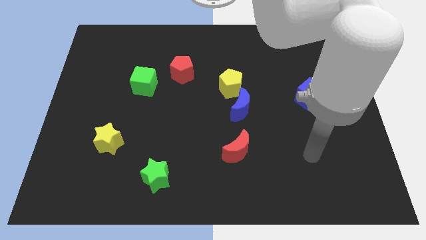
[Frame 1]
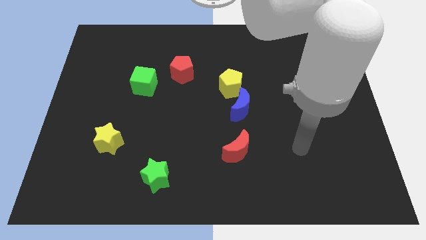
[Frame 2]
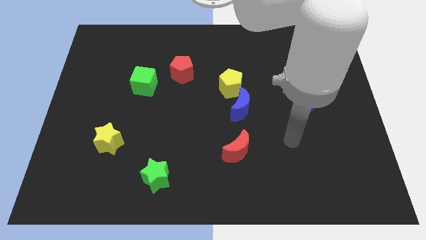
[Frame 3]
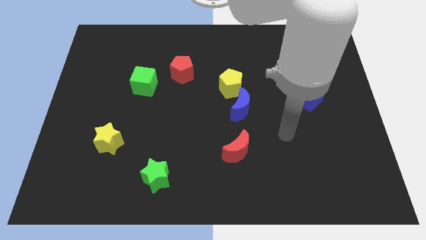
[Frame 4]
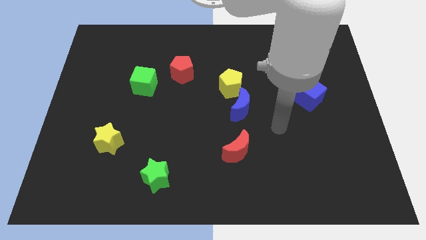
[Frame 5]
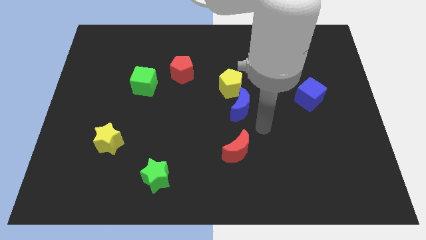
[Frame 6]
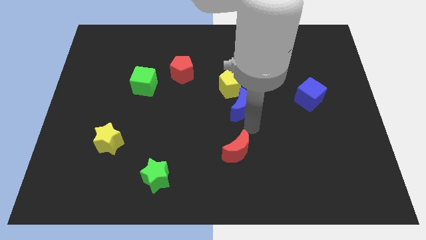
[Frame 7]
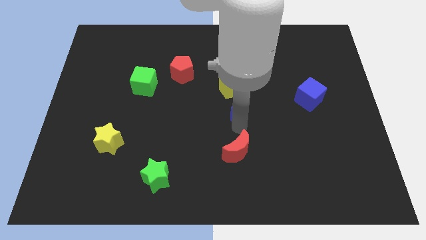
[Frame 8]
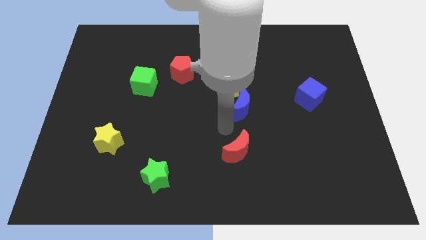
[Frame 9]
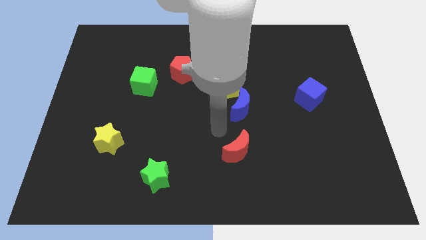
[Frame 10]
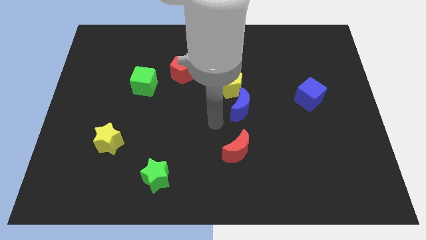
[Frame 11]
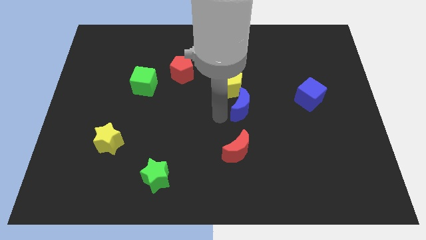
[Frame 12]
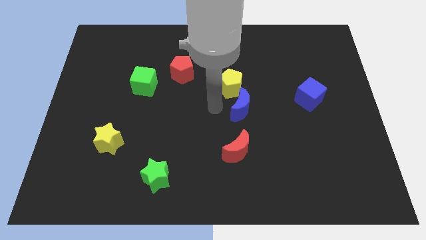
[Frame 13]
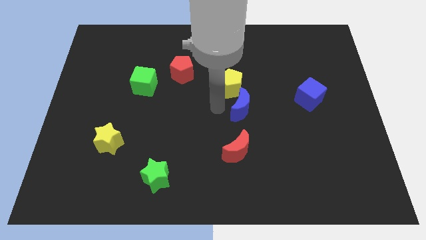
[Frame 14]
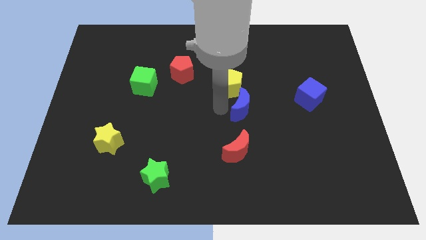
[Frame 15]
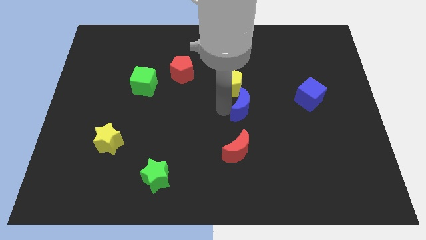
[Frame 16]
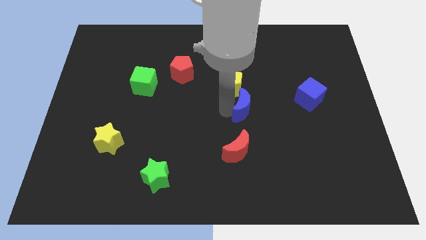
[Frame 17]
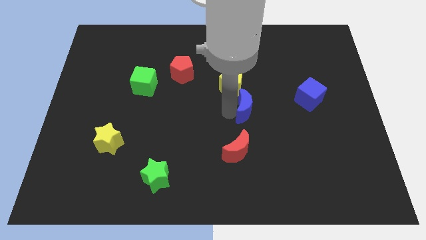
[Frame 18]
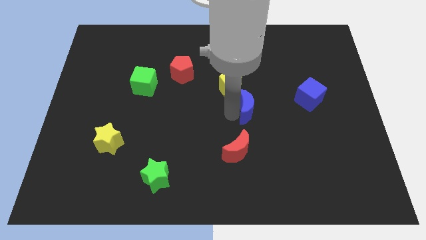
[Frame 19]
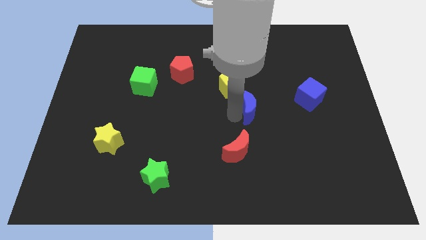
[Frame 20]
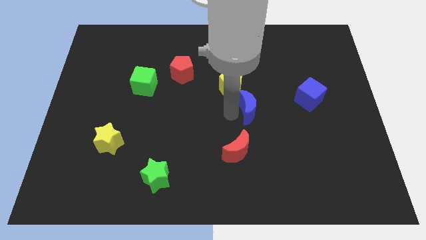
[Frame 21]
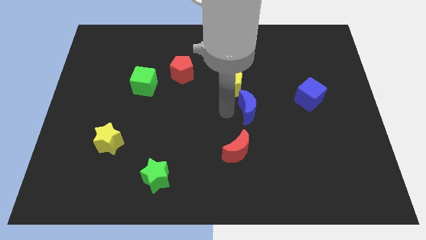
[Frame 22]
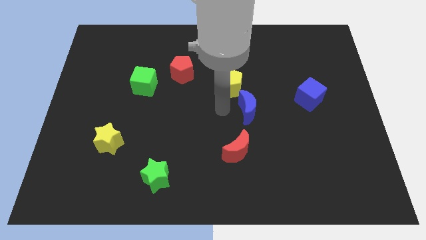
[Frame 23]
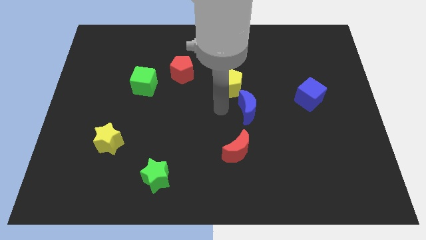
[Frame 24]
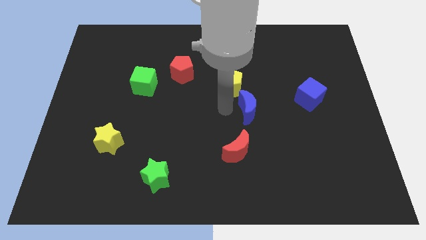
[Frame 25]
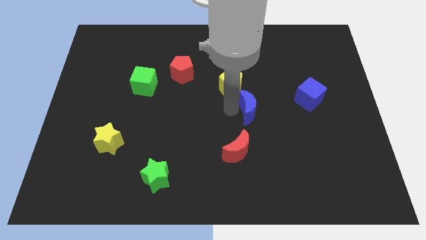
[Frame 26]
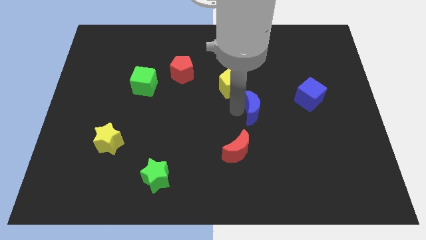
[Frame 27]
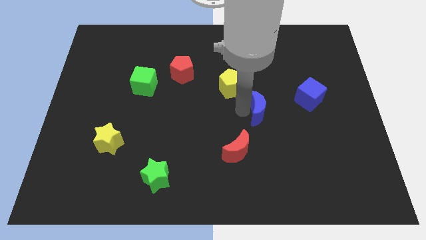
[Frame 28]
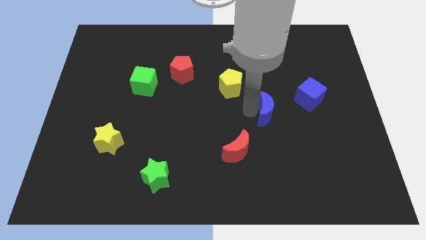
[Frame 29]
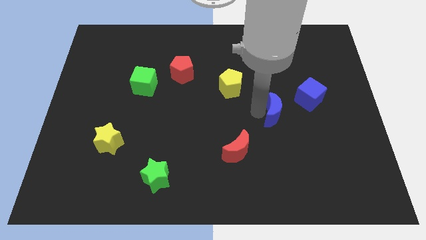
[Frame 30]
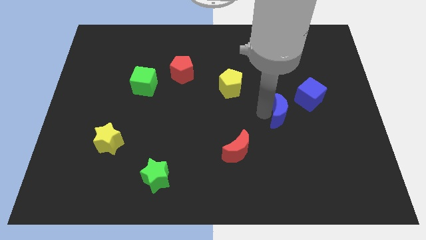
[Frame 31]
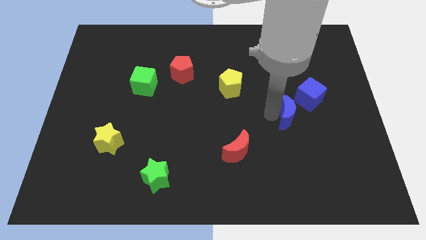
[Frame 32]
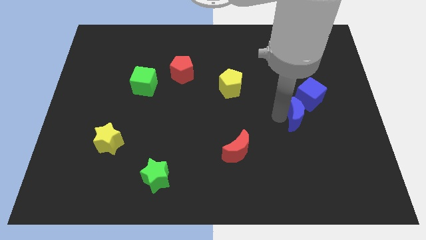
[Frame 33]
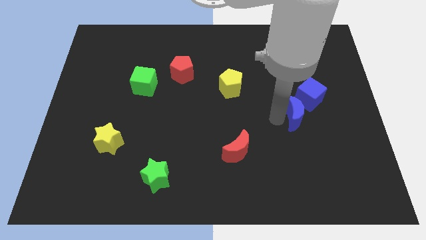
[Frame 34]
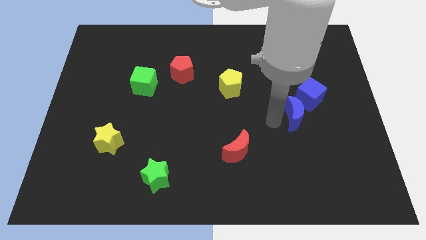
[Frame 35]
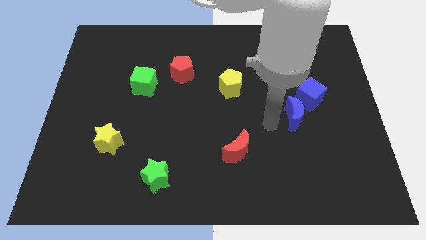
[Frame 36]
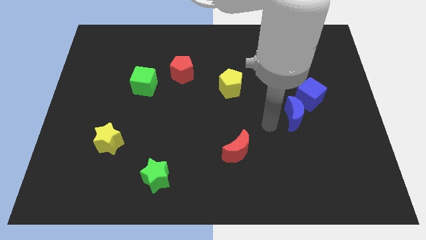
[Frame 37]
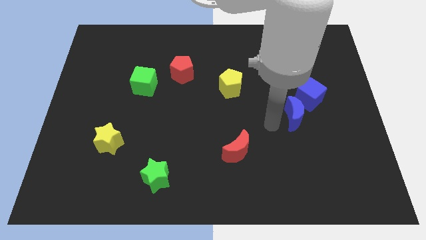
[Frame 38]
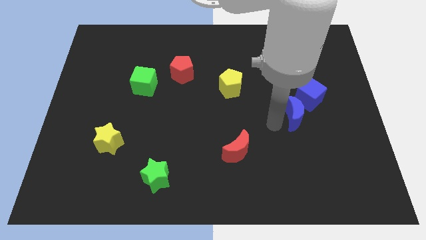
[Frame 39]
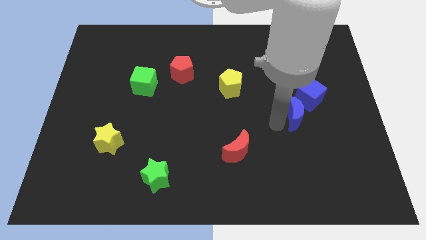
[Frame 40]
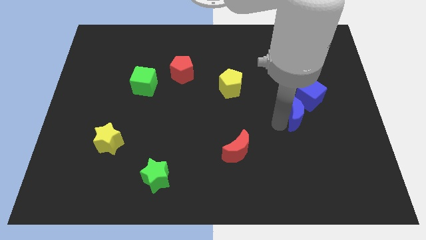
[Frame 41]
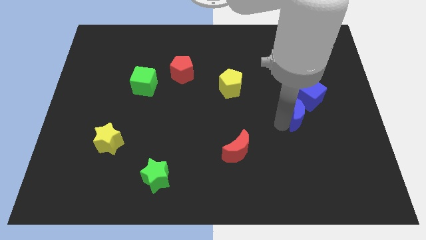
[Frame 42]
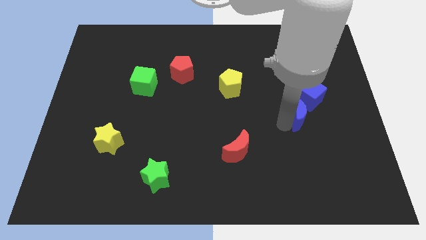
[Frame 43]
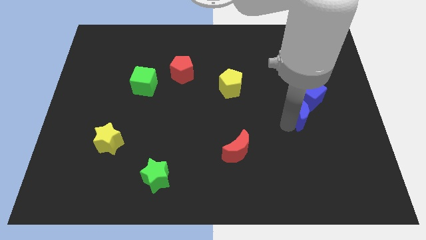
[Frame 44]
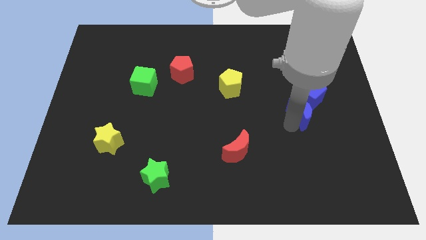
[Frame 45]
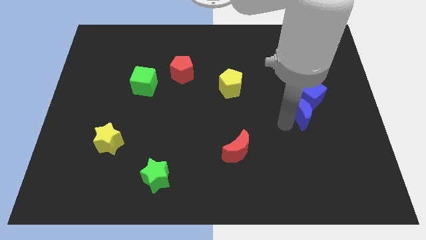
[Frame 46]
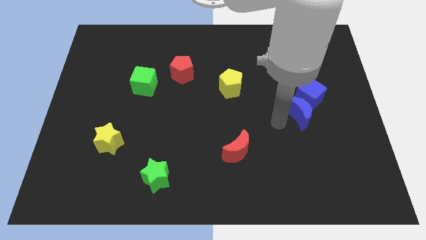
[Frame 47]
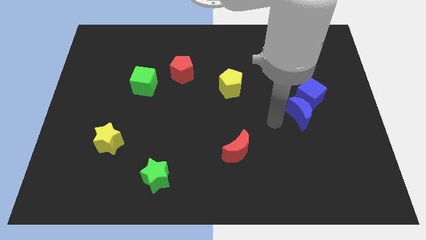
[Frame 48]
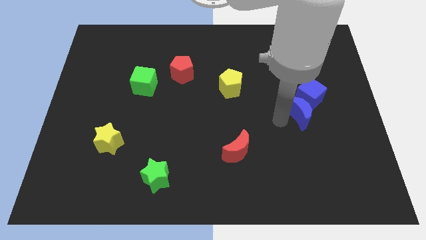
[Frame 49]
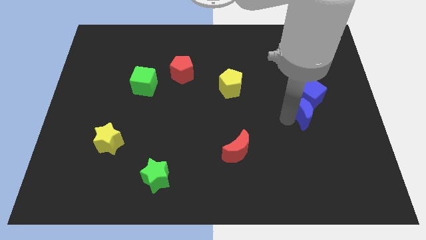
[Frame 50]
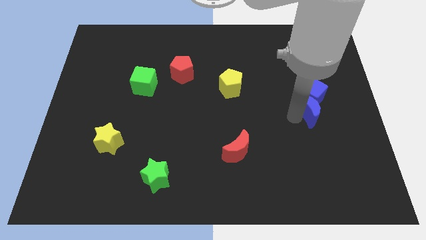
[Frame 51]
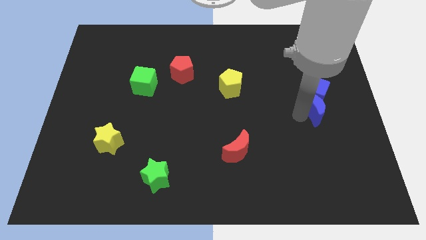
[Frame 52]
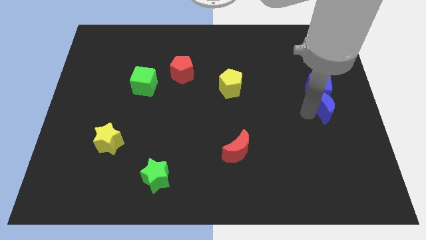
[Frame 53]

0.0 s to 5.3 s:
move the blue moon to the right side
